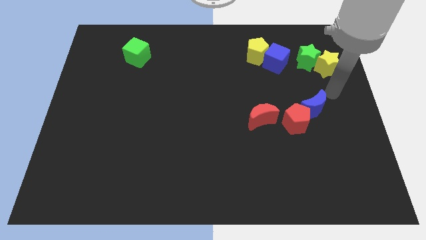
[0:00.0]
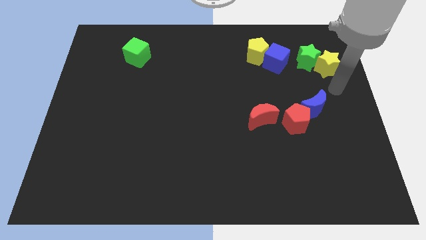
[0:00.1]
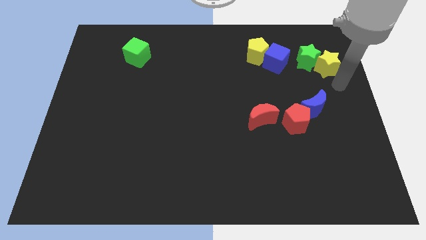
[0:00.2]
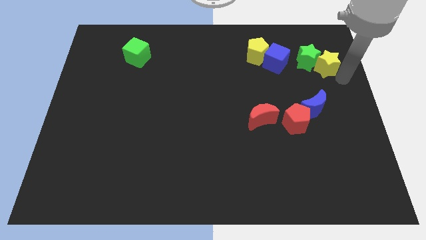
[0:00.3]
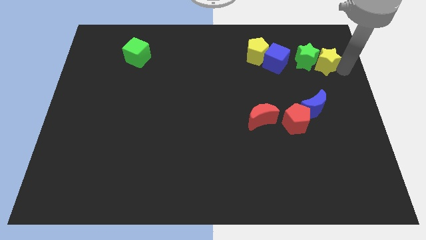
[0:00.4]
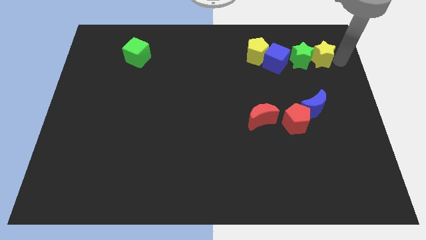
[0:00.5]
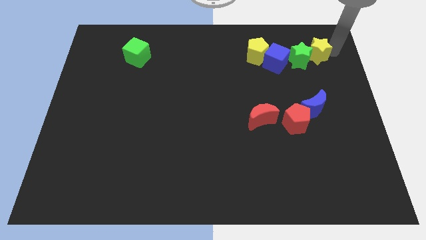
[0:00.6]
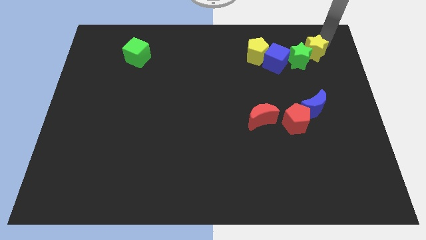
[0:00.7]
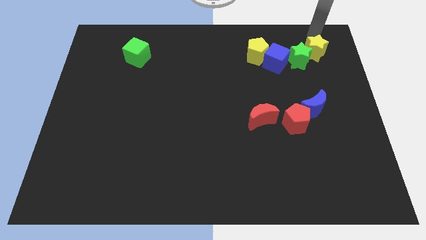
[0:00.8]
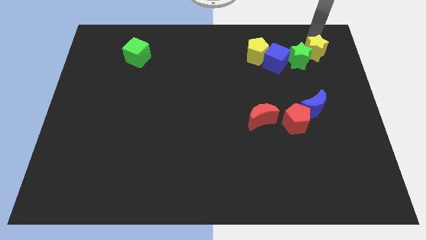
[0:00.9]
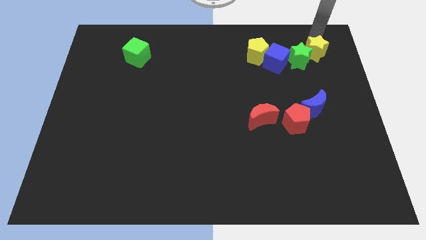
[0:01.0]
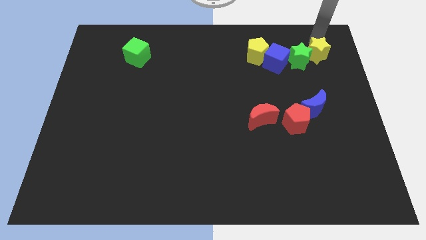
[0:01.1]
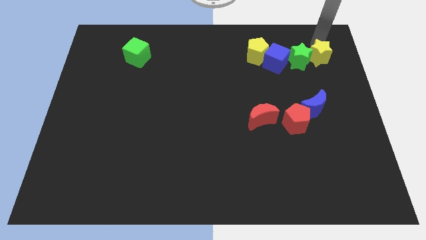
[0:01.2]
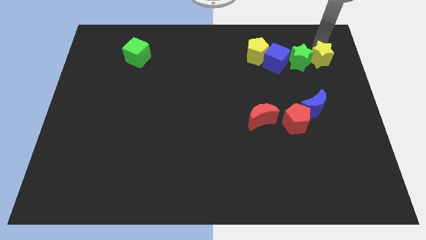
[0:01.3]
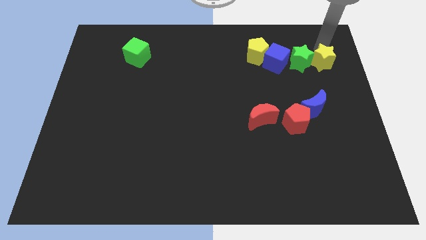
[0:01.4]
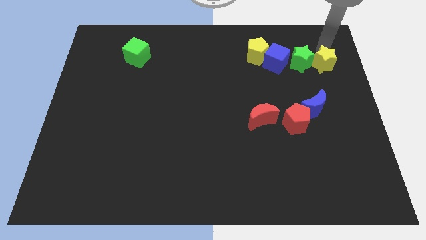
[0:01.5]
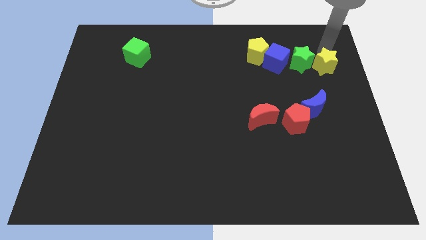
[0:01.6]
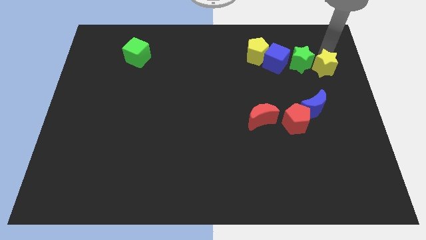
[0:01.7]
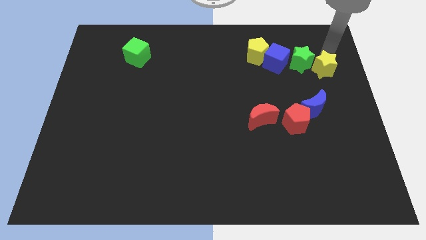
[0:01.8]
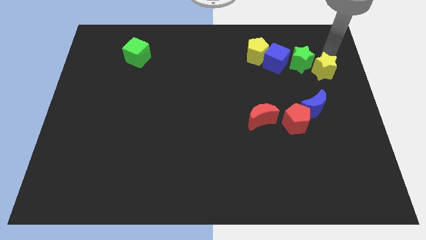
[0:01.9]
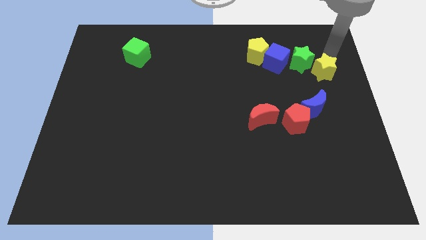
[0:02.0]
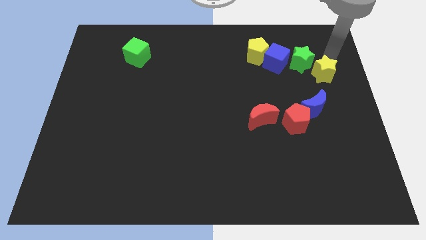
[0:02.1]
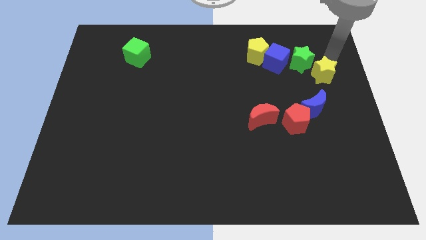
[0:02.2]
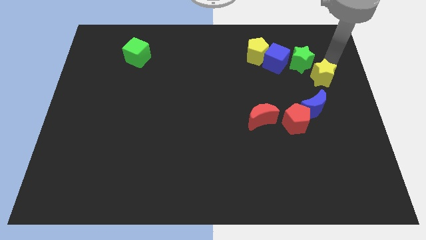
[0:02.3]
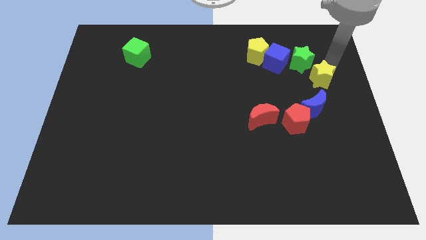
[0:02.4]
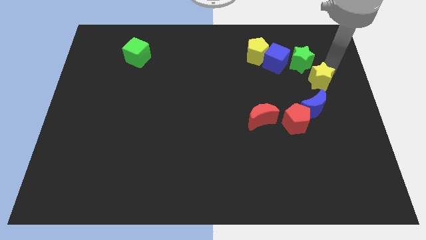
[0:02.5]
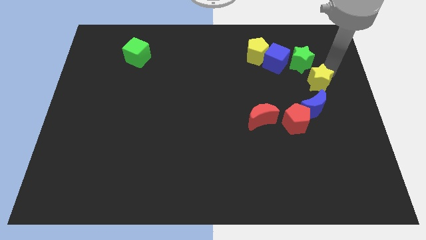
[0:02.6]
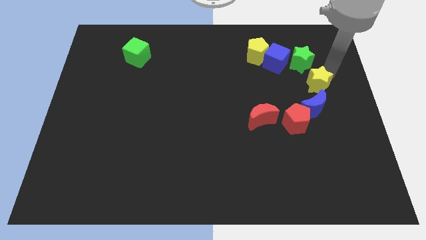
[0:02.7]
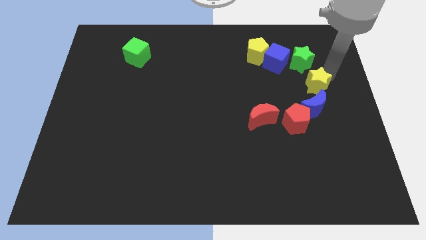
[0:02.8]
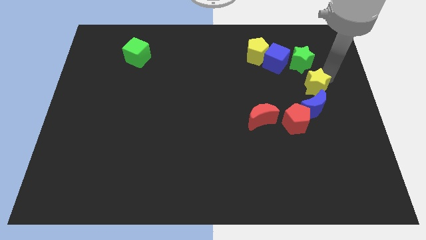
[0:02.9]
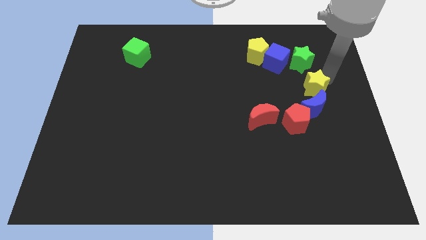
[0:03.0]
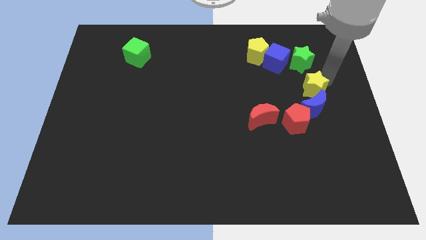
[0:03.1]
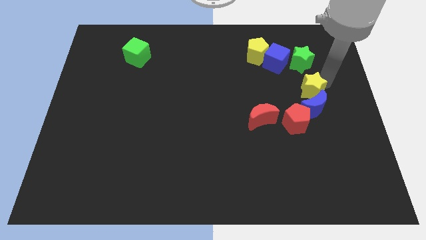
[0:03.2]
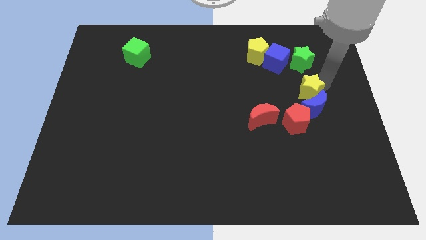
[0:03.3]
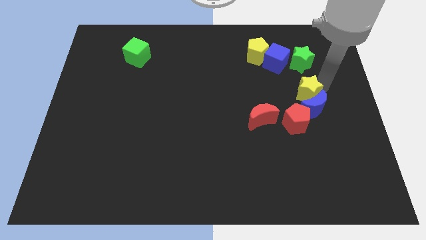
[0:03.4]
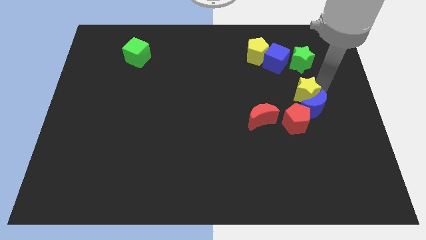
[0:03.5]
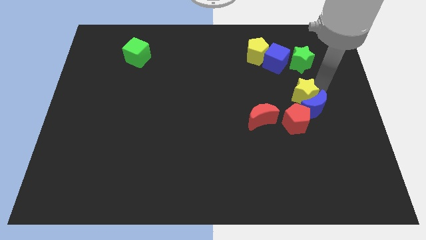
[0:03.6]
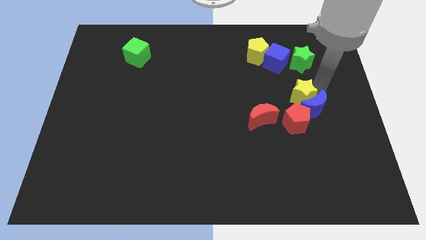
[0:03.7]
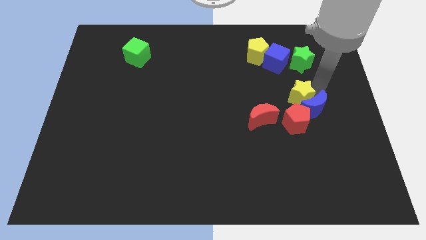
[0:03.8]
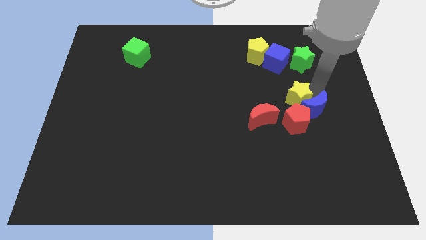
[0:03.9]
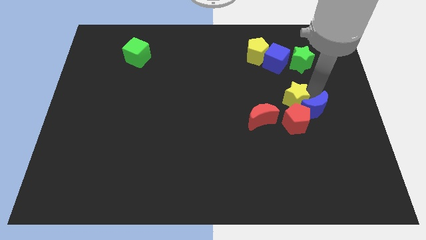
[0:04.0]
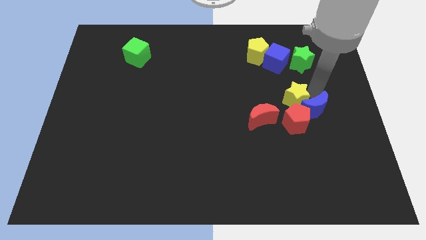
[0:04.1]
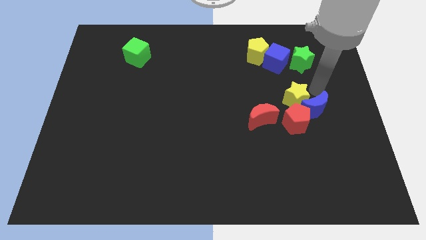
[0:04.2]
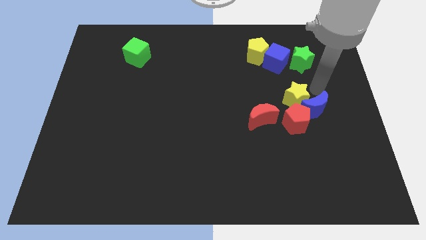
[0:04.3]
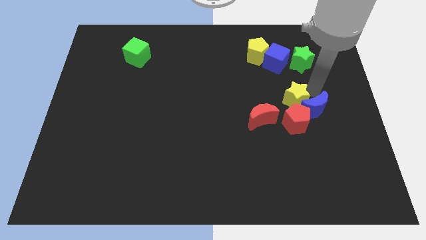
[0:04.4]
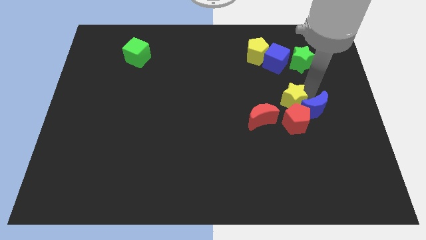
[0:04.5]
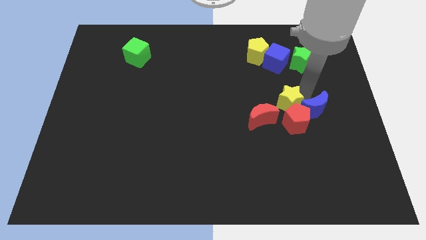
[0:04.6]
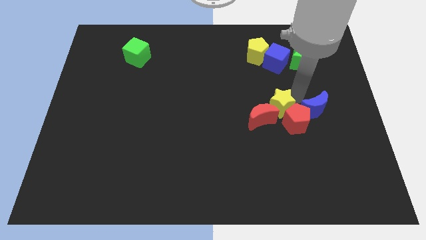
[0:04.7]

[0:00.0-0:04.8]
move the yellow star close to the red moon

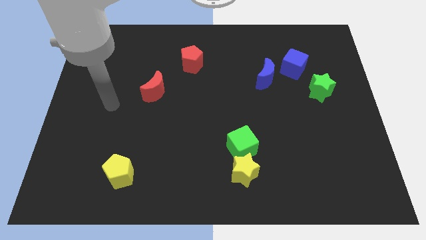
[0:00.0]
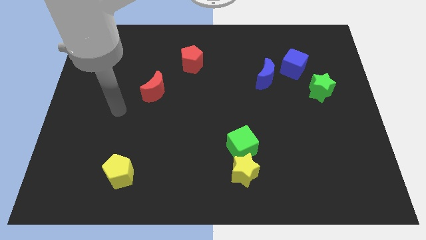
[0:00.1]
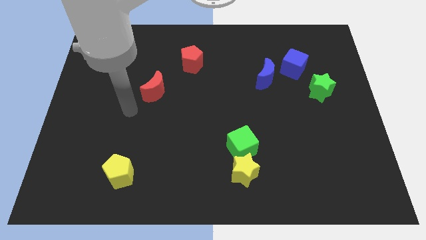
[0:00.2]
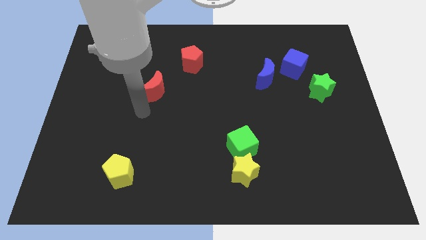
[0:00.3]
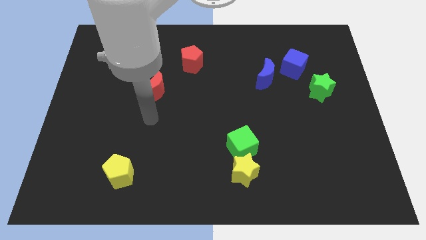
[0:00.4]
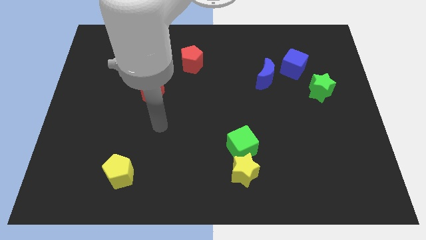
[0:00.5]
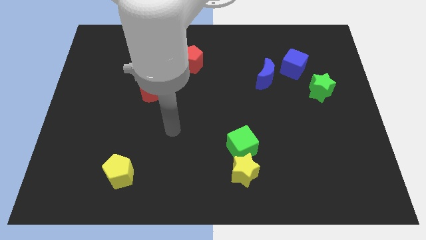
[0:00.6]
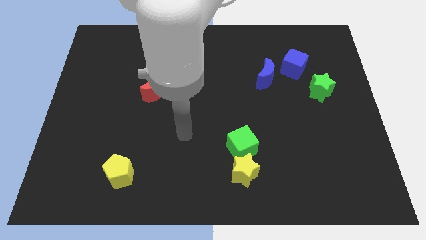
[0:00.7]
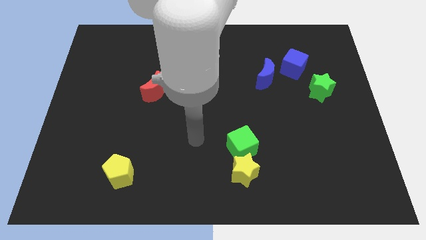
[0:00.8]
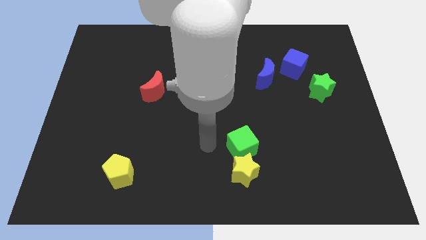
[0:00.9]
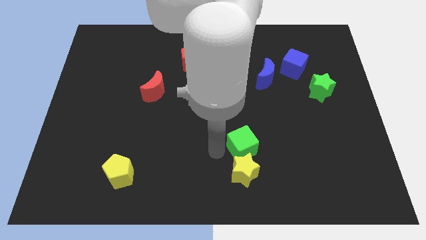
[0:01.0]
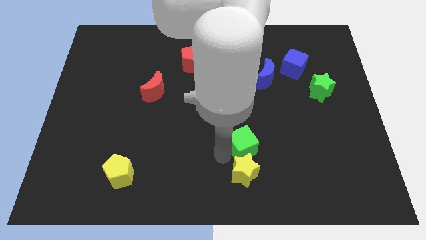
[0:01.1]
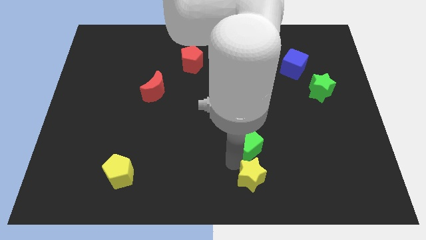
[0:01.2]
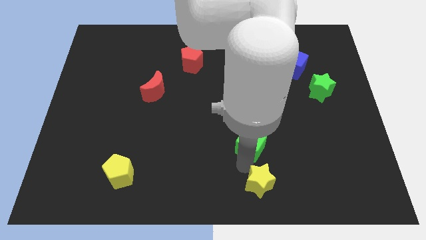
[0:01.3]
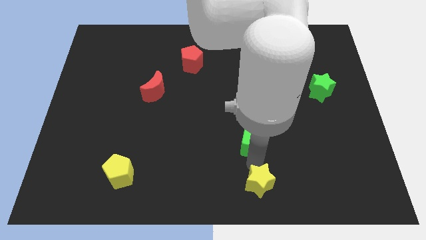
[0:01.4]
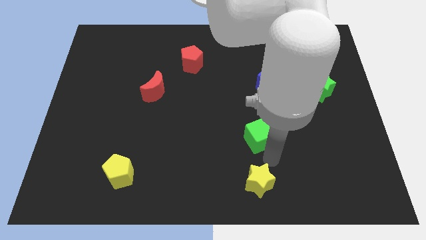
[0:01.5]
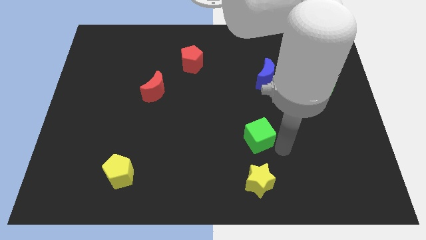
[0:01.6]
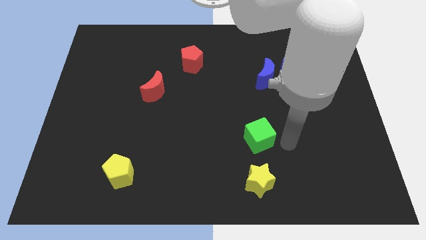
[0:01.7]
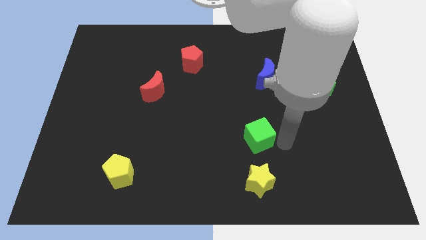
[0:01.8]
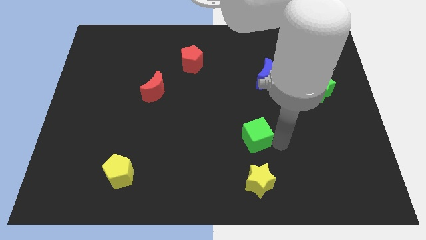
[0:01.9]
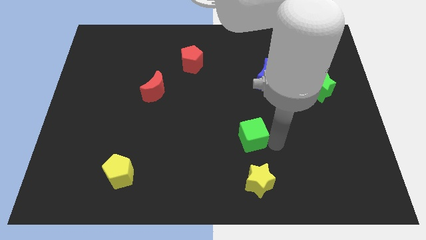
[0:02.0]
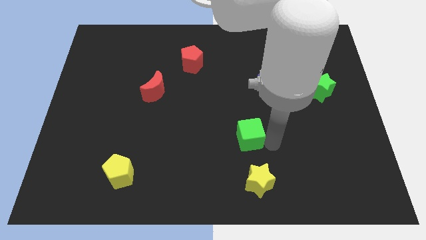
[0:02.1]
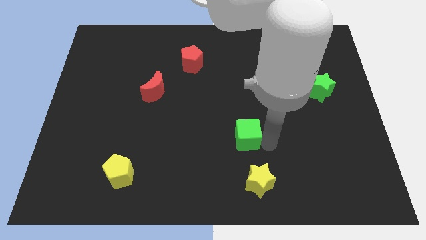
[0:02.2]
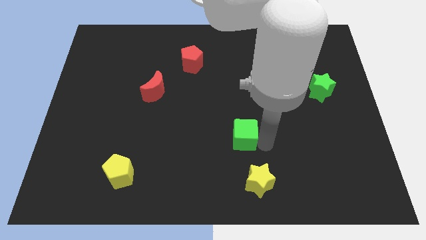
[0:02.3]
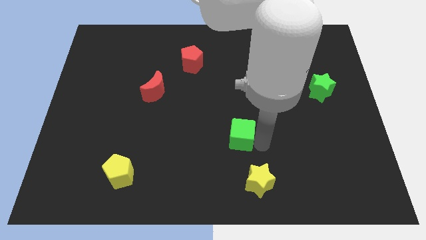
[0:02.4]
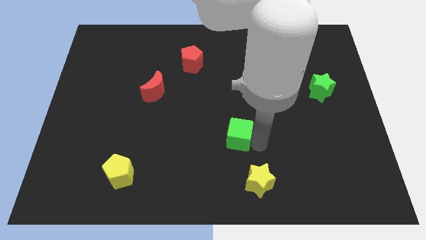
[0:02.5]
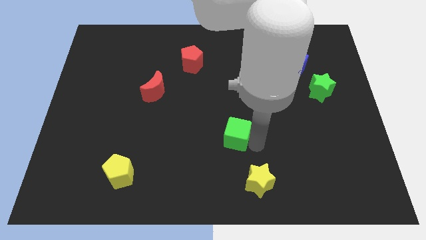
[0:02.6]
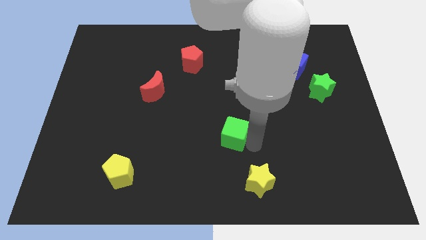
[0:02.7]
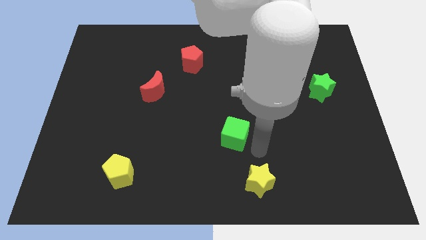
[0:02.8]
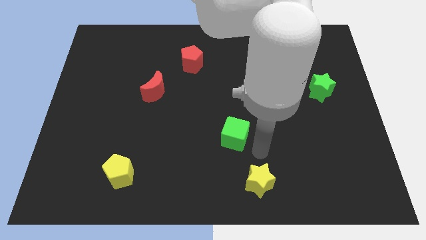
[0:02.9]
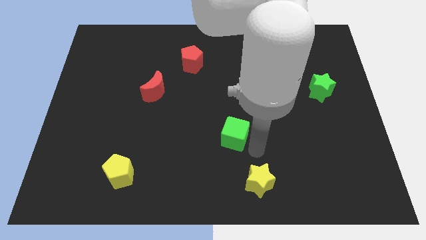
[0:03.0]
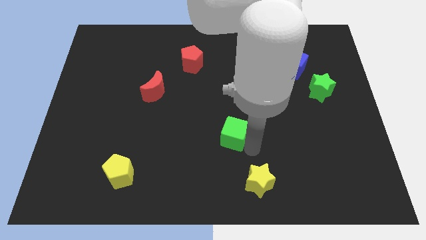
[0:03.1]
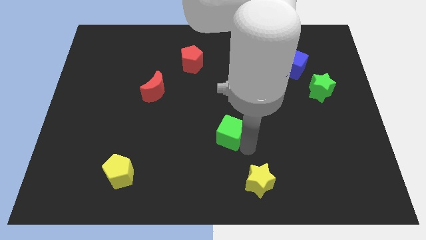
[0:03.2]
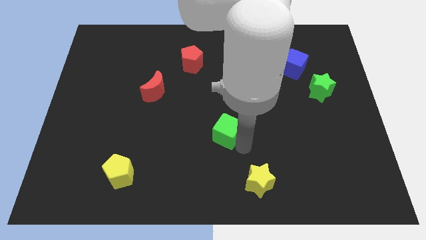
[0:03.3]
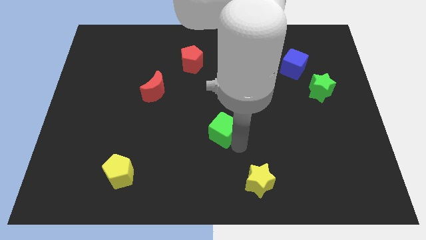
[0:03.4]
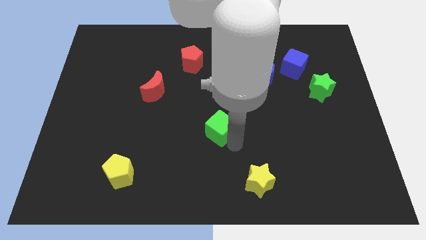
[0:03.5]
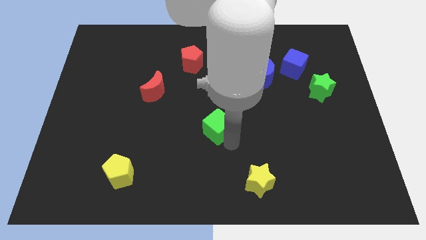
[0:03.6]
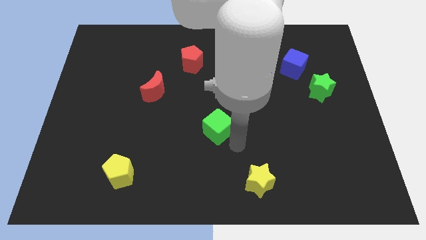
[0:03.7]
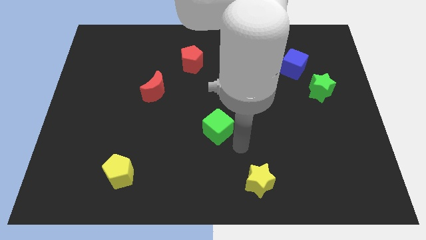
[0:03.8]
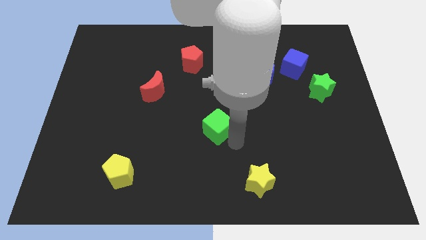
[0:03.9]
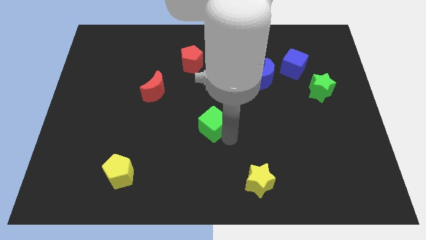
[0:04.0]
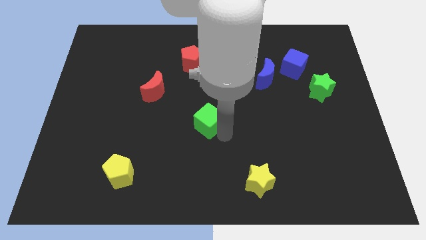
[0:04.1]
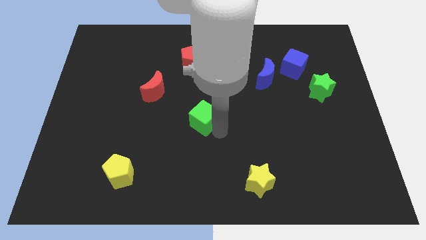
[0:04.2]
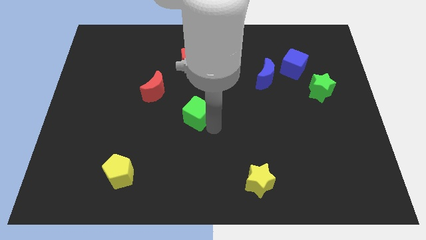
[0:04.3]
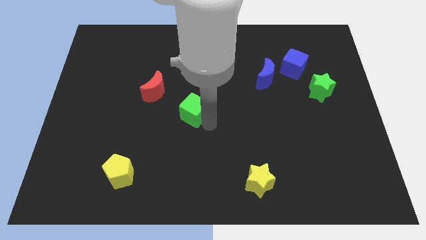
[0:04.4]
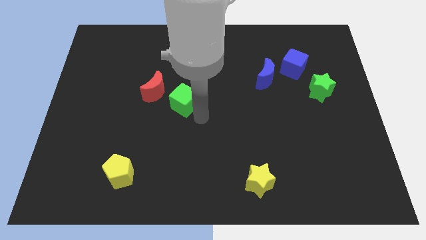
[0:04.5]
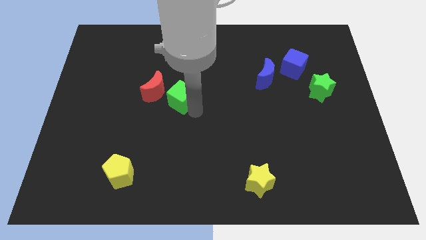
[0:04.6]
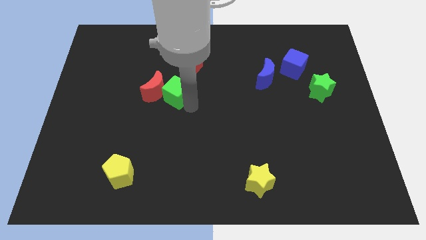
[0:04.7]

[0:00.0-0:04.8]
move the green cube next to the red moon
